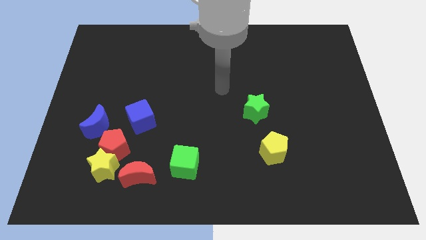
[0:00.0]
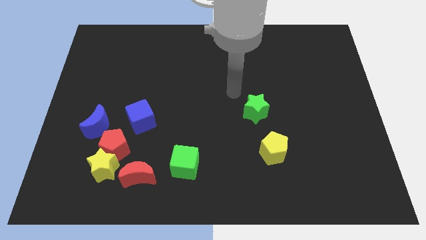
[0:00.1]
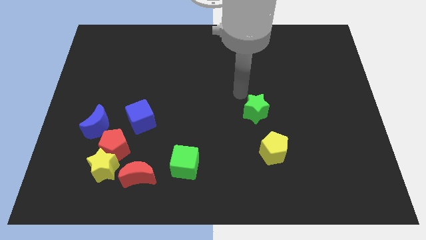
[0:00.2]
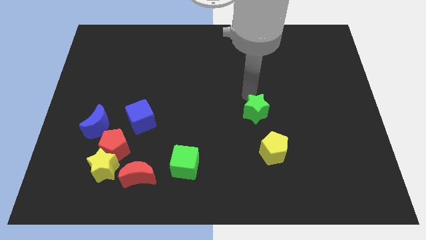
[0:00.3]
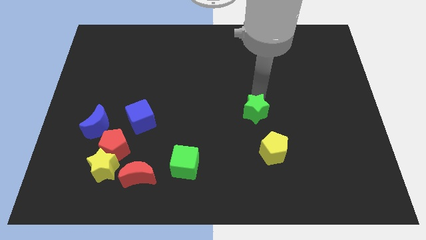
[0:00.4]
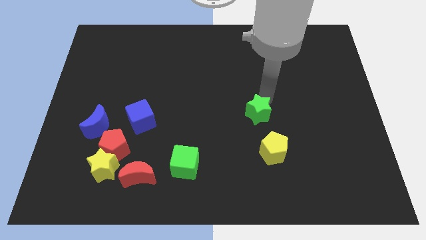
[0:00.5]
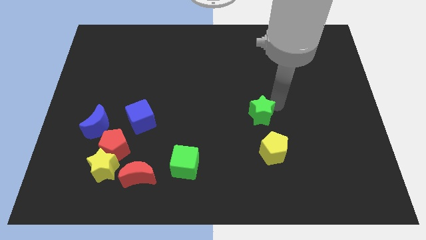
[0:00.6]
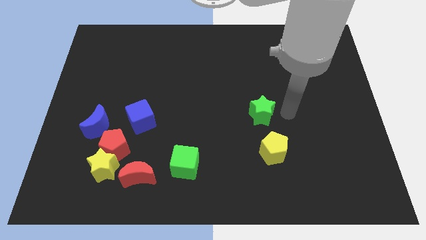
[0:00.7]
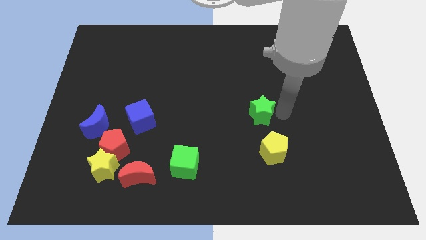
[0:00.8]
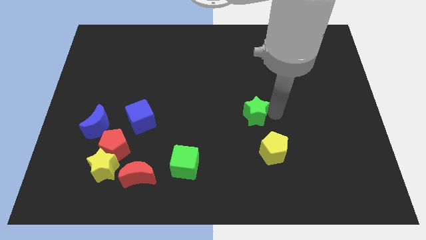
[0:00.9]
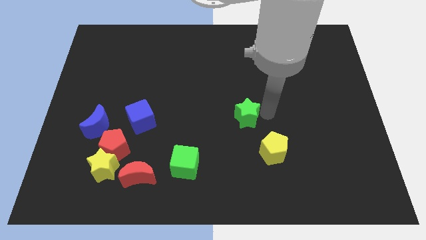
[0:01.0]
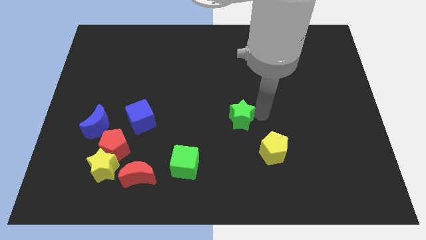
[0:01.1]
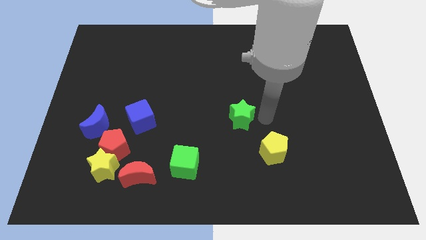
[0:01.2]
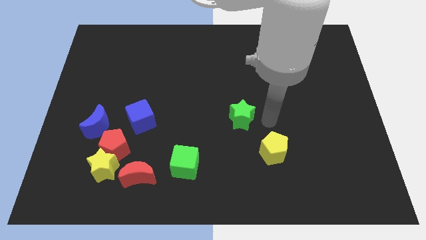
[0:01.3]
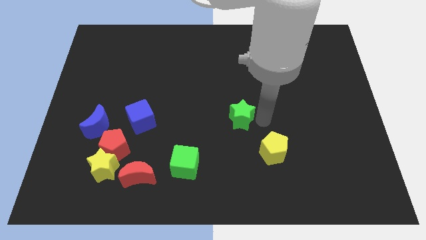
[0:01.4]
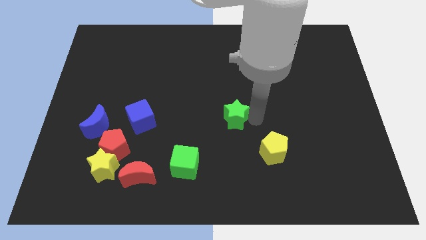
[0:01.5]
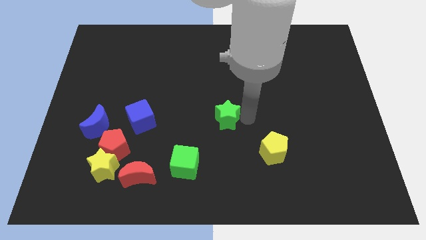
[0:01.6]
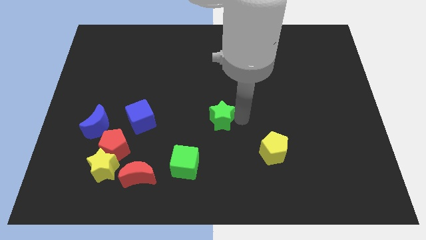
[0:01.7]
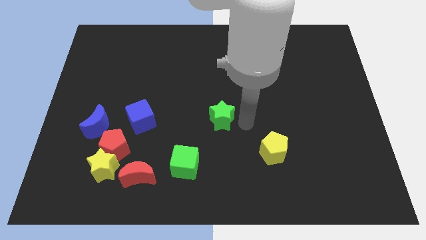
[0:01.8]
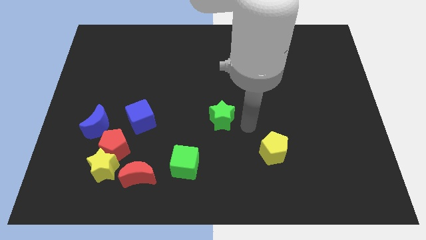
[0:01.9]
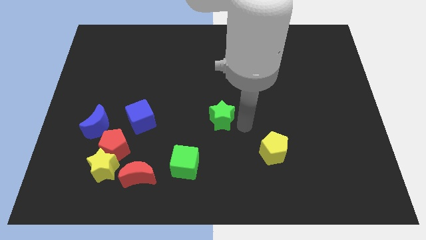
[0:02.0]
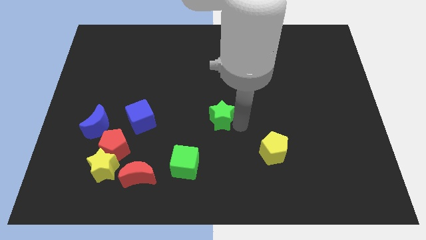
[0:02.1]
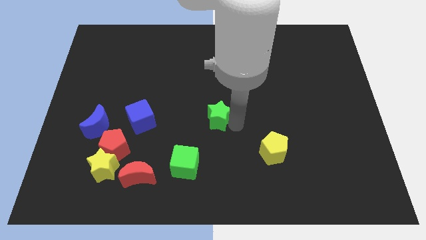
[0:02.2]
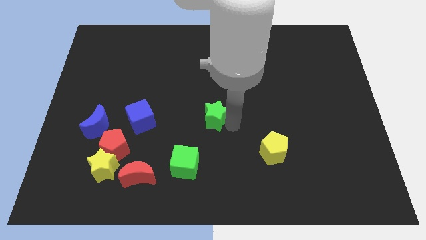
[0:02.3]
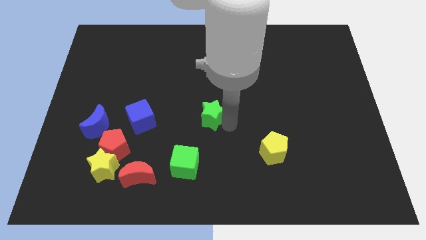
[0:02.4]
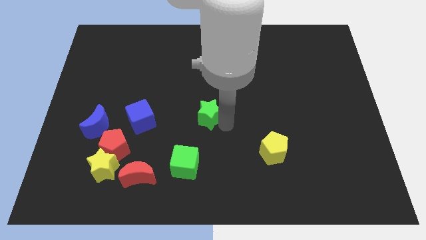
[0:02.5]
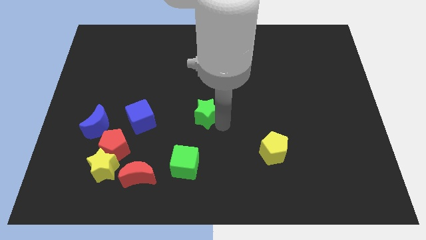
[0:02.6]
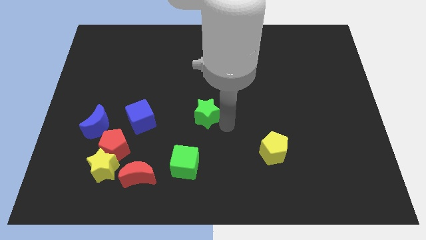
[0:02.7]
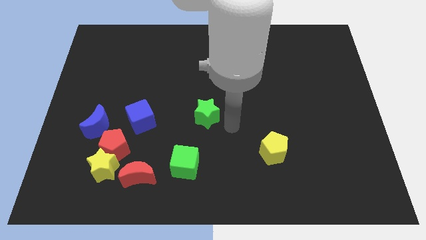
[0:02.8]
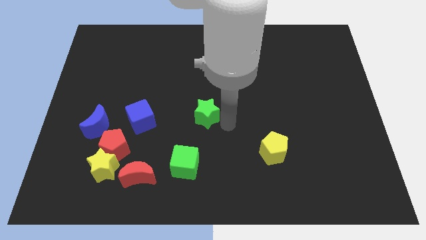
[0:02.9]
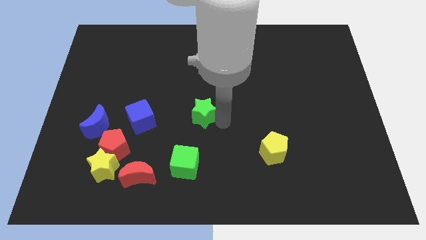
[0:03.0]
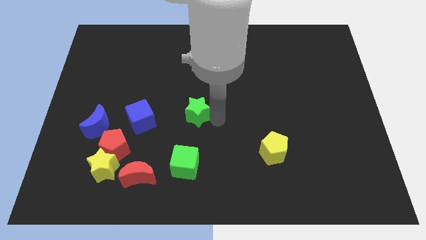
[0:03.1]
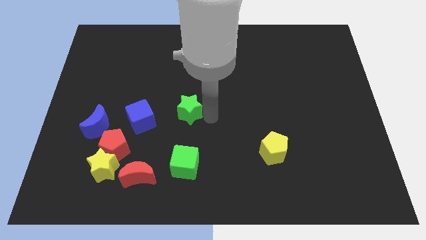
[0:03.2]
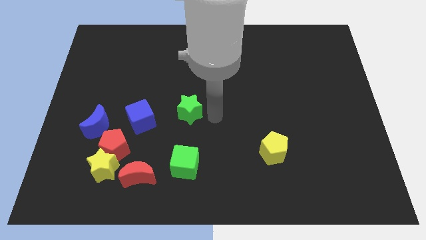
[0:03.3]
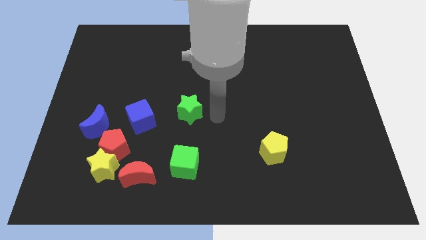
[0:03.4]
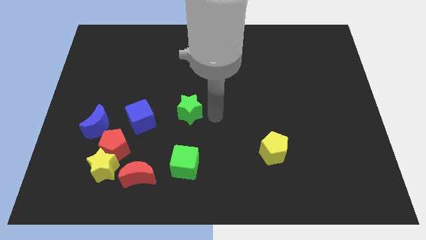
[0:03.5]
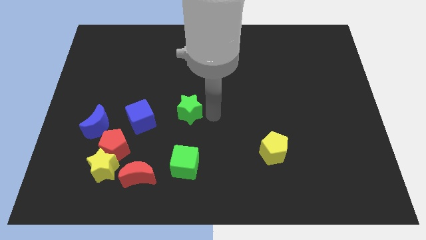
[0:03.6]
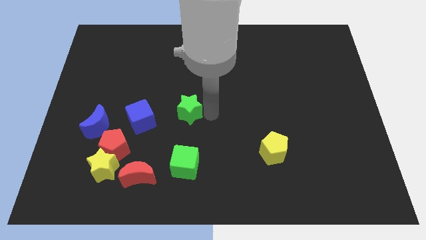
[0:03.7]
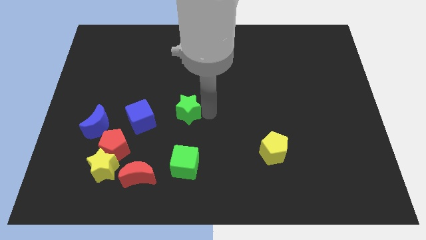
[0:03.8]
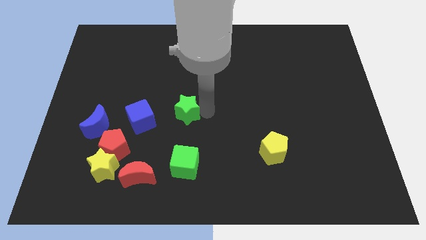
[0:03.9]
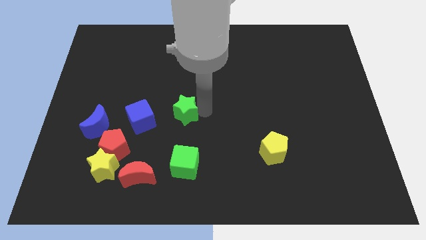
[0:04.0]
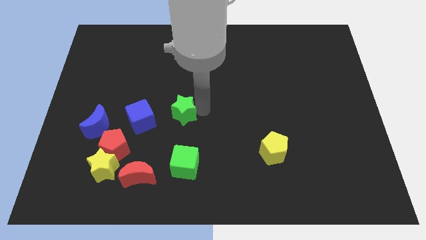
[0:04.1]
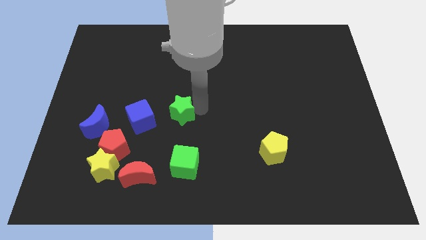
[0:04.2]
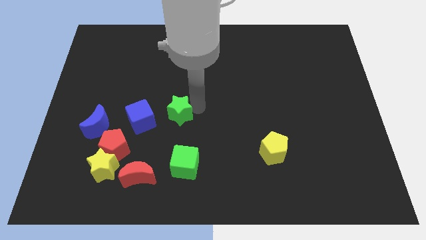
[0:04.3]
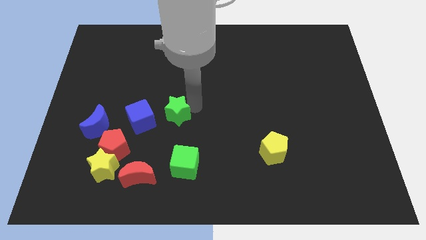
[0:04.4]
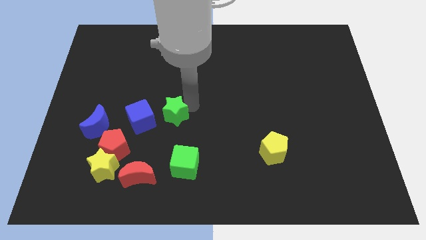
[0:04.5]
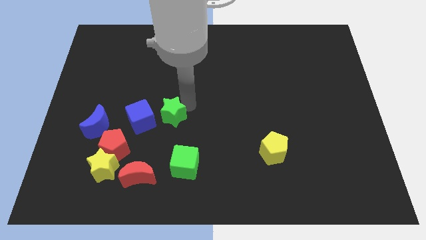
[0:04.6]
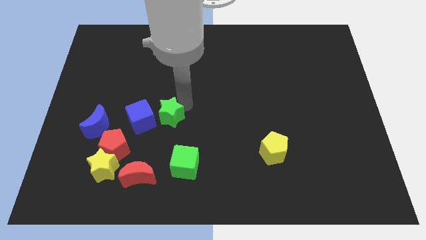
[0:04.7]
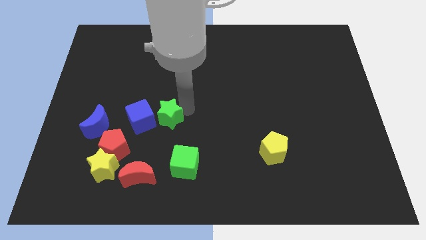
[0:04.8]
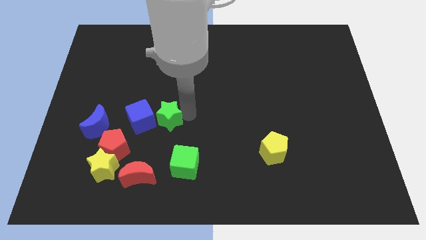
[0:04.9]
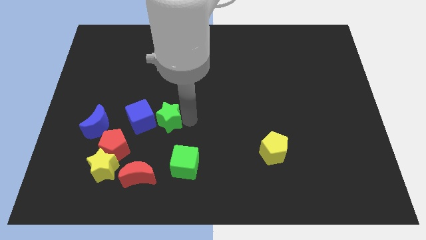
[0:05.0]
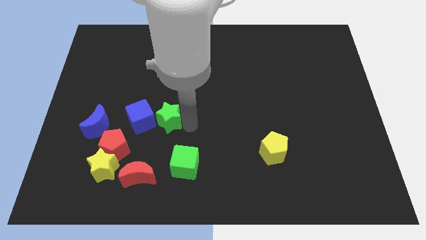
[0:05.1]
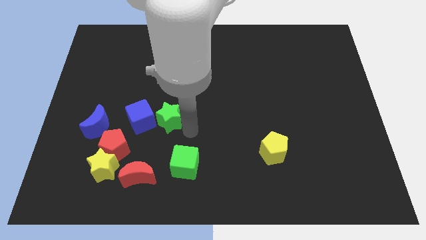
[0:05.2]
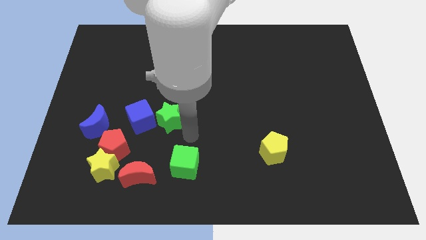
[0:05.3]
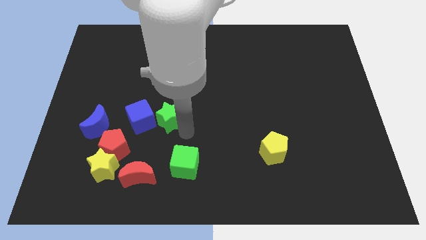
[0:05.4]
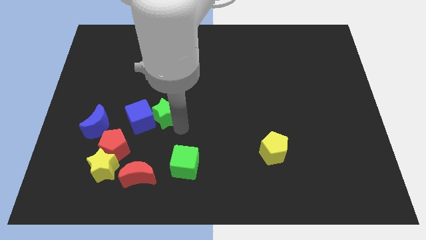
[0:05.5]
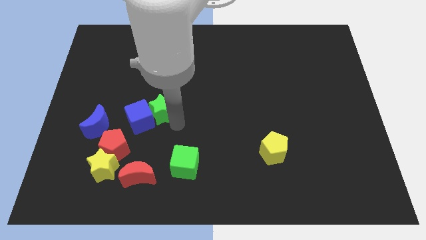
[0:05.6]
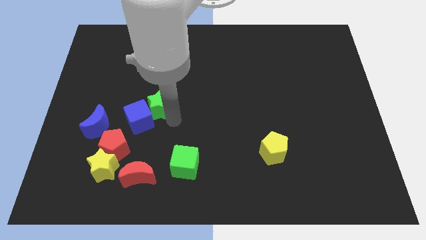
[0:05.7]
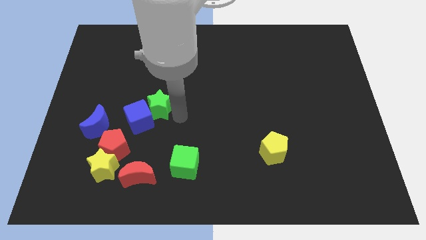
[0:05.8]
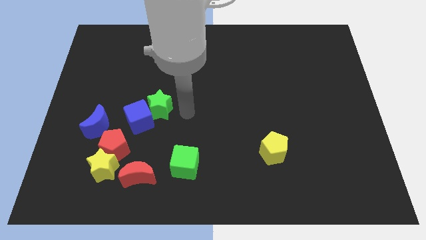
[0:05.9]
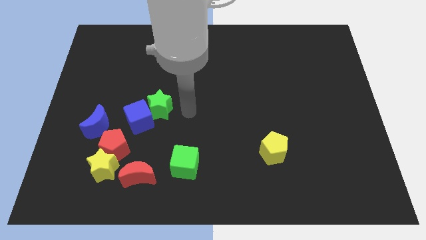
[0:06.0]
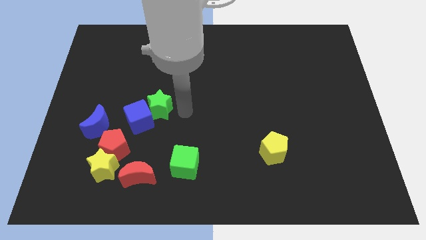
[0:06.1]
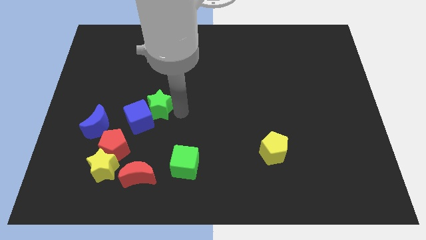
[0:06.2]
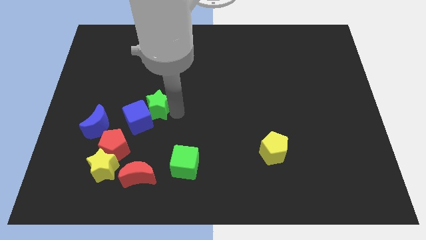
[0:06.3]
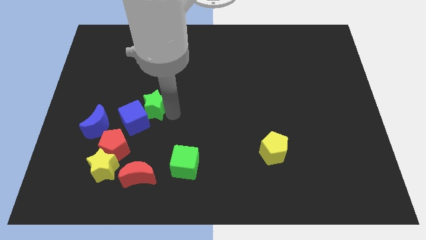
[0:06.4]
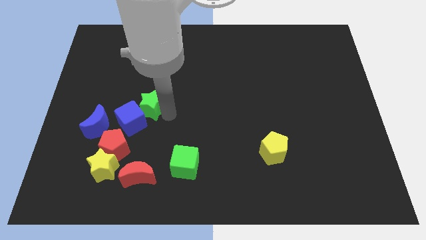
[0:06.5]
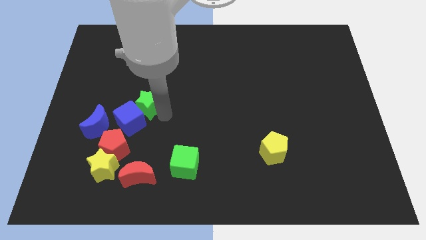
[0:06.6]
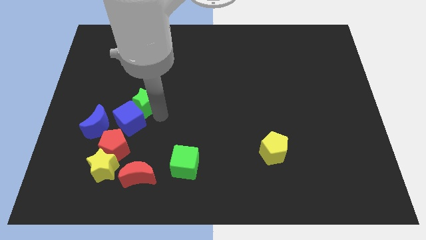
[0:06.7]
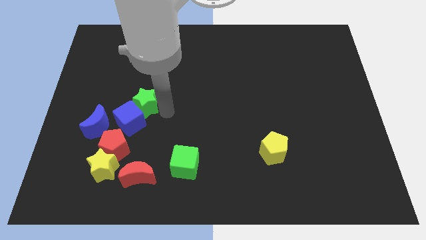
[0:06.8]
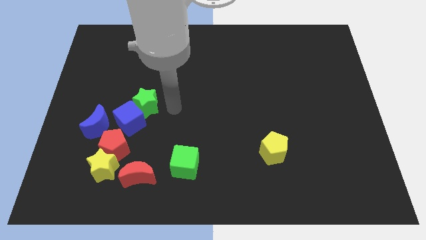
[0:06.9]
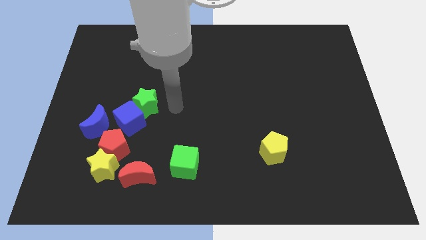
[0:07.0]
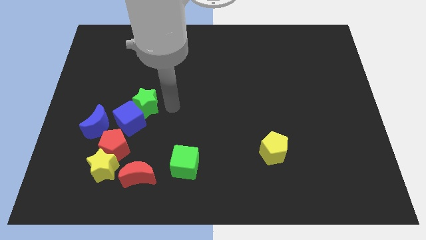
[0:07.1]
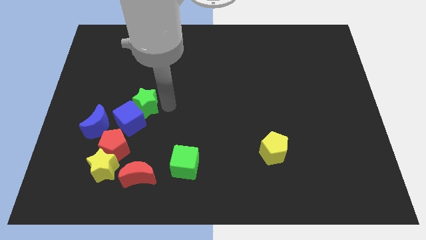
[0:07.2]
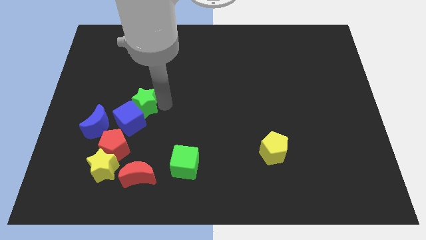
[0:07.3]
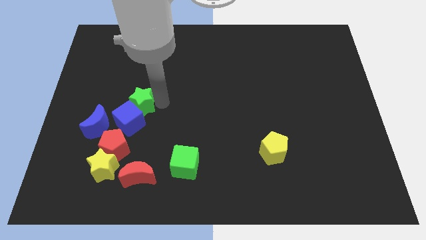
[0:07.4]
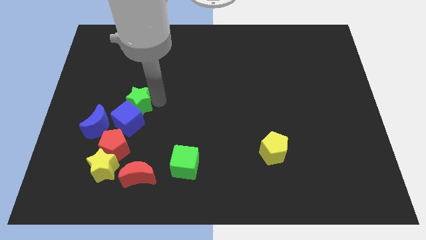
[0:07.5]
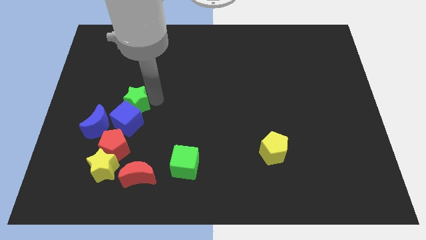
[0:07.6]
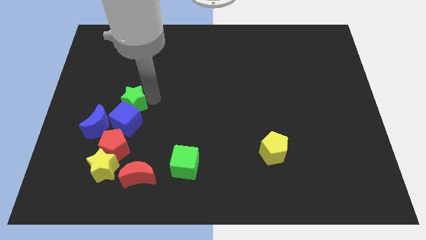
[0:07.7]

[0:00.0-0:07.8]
slide the green star to the top left side of the blue cube
